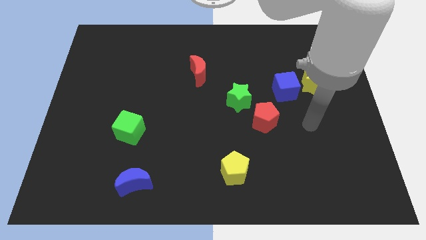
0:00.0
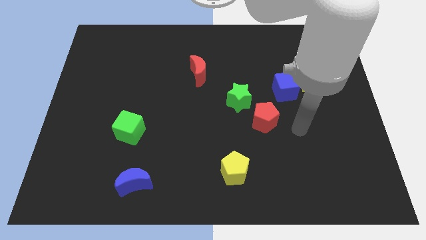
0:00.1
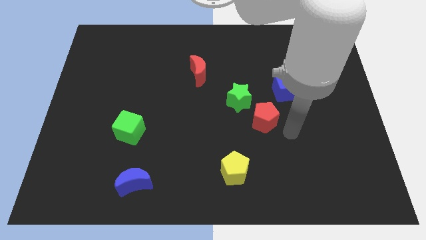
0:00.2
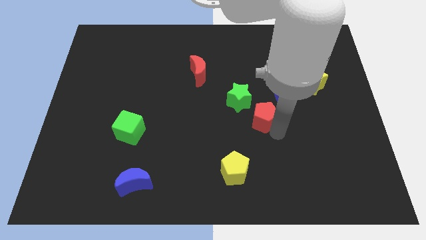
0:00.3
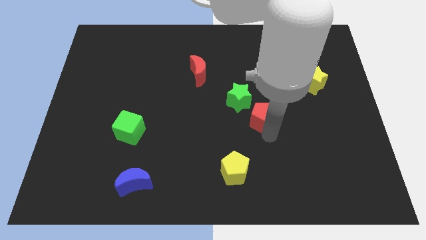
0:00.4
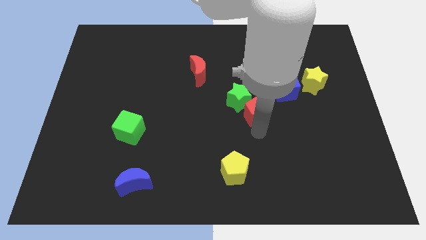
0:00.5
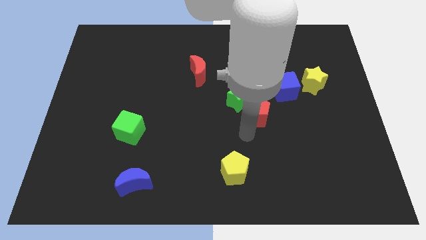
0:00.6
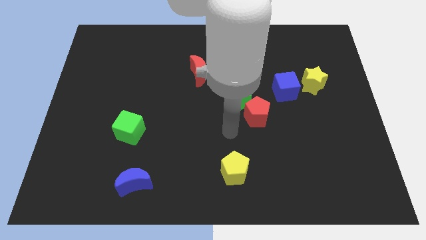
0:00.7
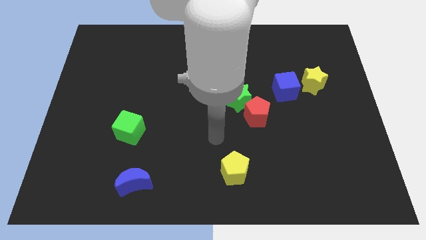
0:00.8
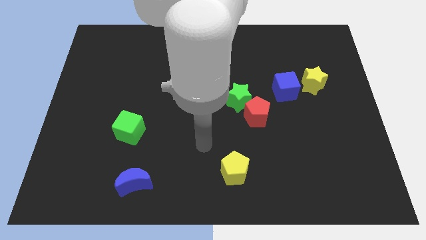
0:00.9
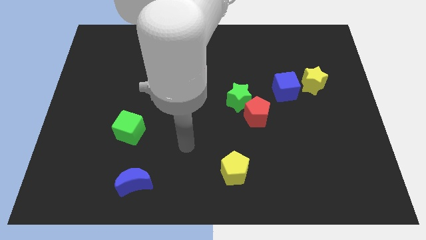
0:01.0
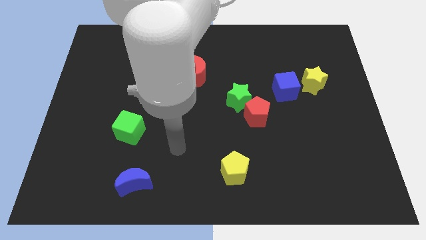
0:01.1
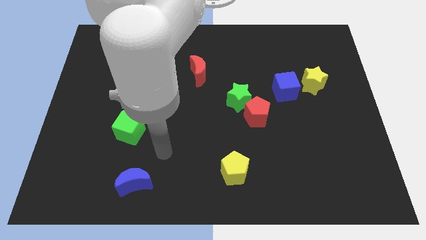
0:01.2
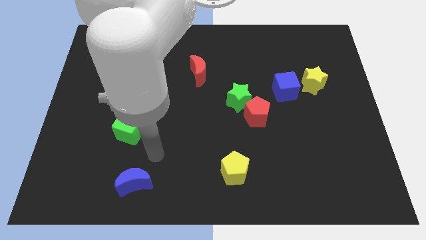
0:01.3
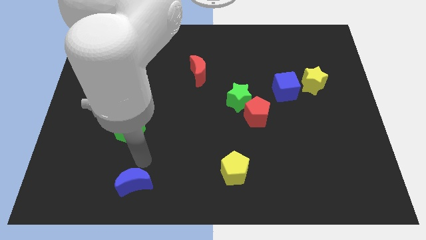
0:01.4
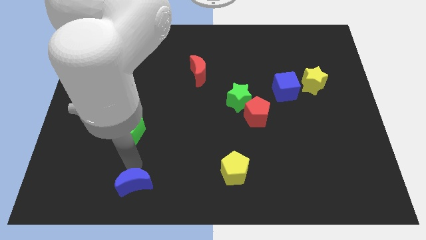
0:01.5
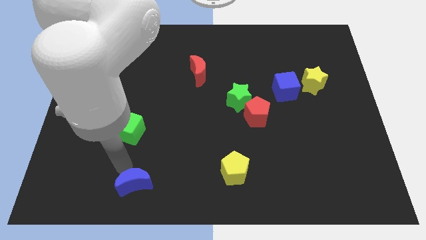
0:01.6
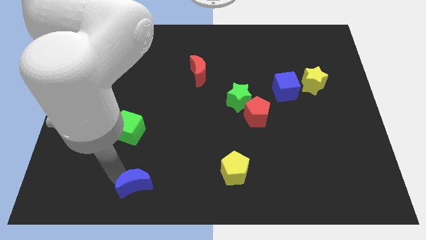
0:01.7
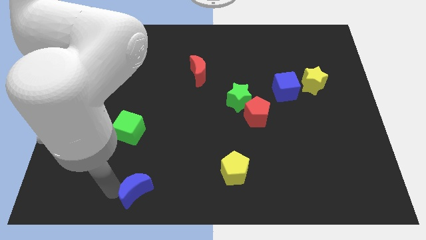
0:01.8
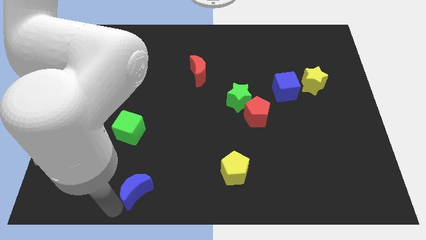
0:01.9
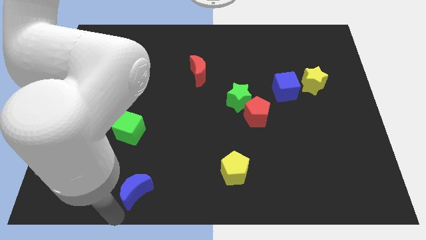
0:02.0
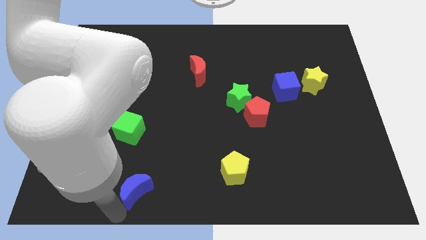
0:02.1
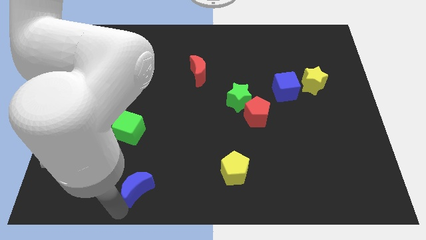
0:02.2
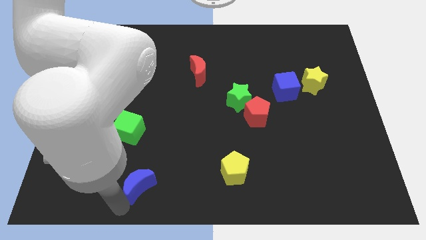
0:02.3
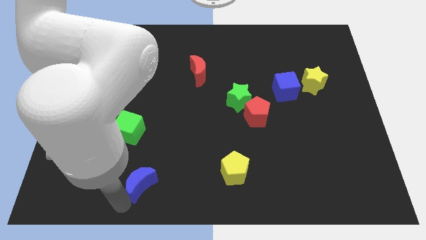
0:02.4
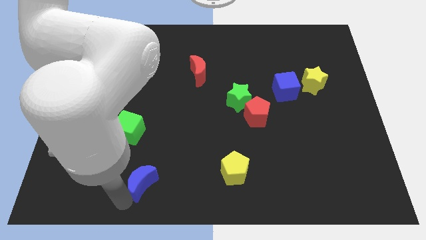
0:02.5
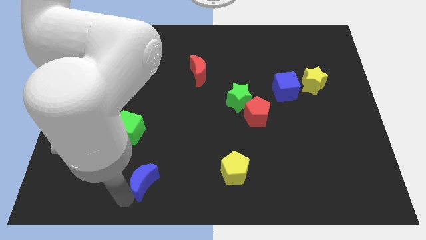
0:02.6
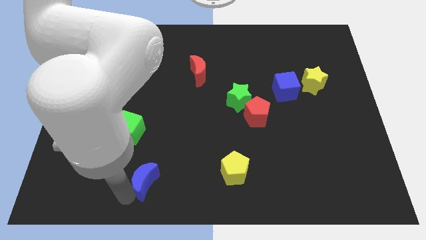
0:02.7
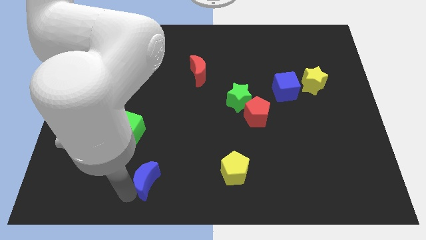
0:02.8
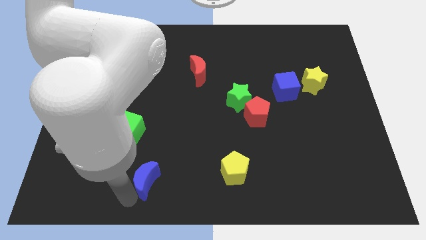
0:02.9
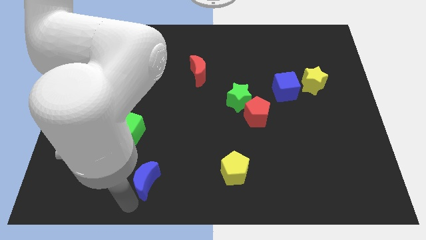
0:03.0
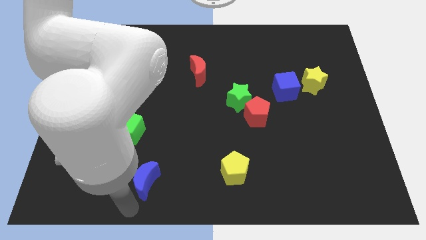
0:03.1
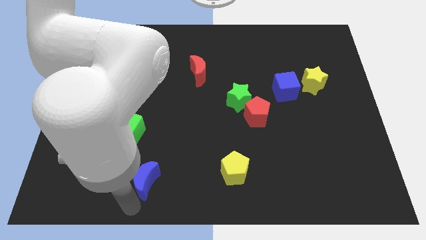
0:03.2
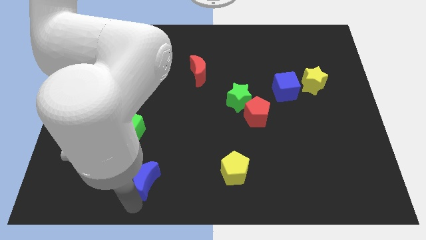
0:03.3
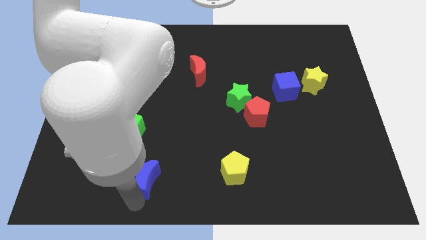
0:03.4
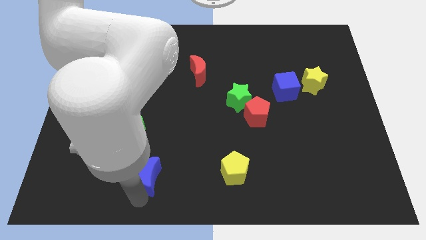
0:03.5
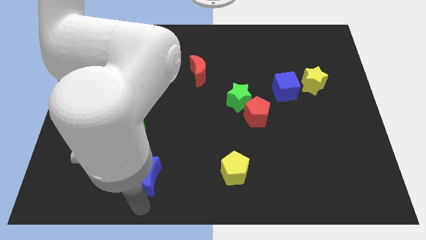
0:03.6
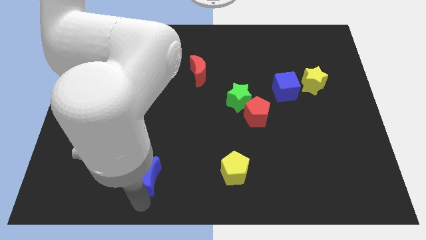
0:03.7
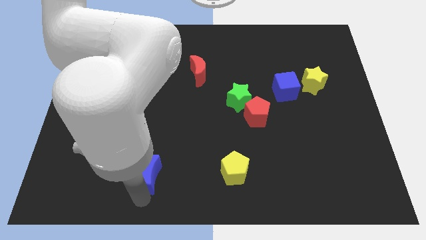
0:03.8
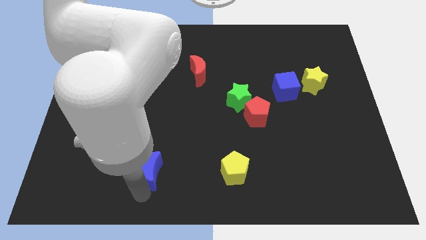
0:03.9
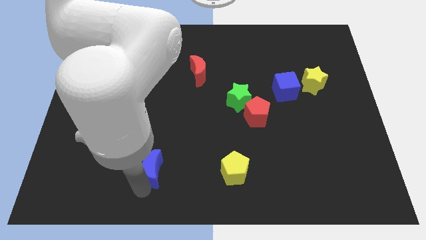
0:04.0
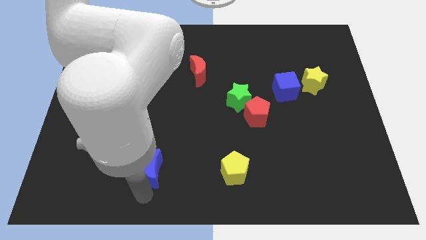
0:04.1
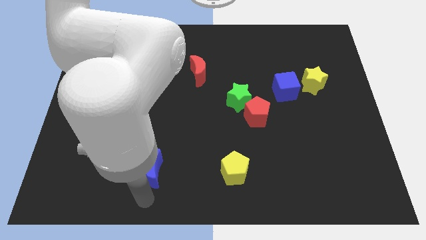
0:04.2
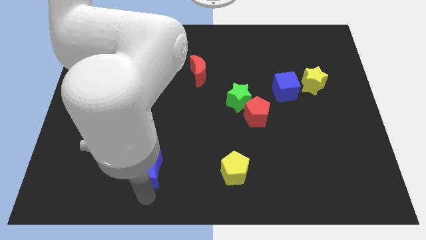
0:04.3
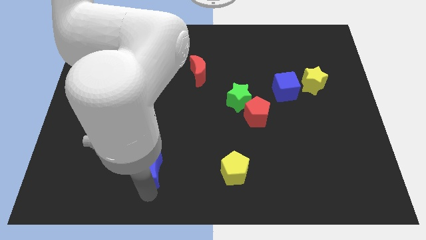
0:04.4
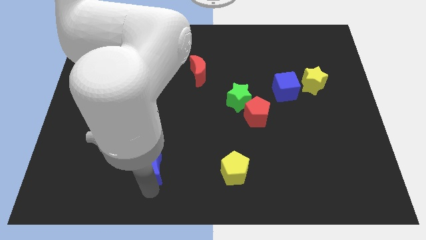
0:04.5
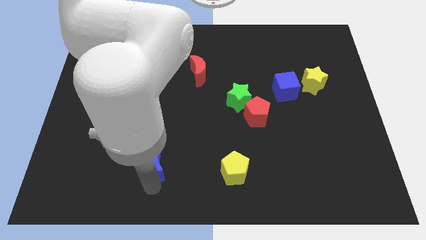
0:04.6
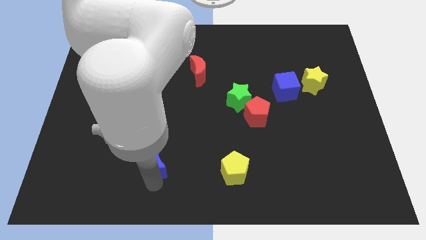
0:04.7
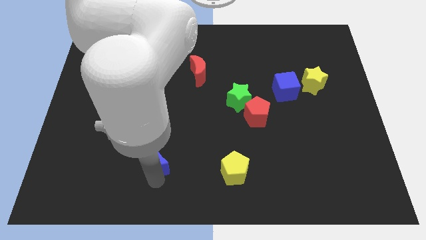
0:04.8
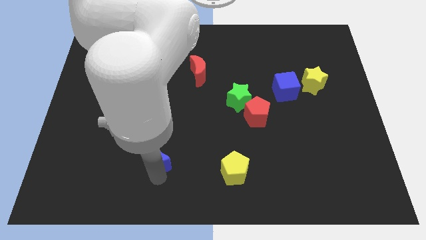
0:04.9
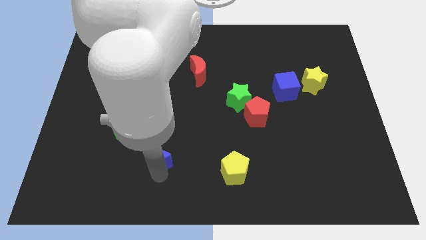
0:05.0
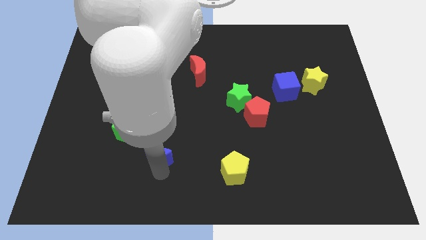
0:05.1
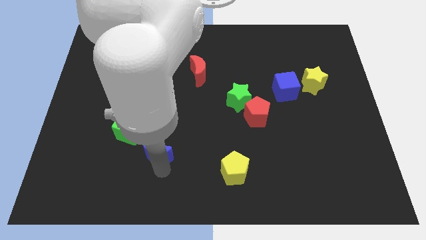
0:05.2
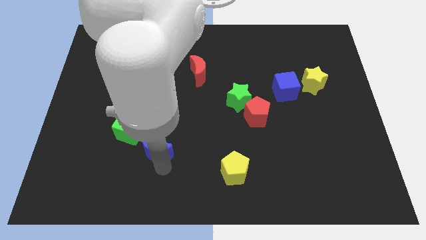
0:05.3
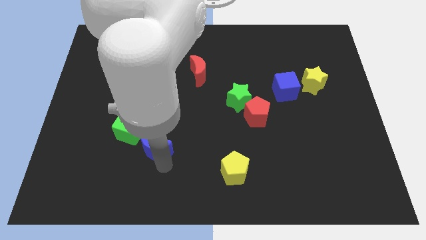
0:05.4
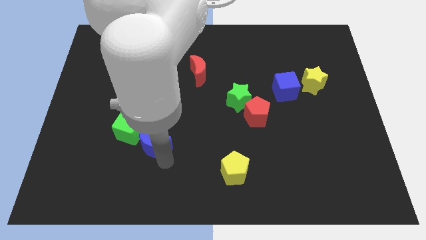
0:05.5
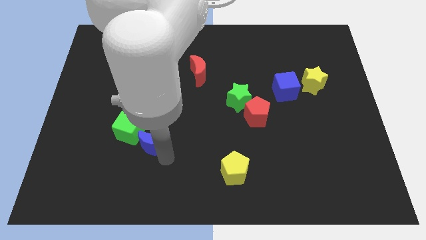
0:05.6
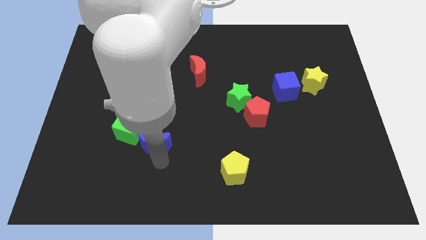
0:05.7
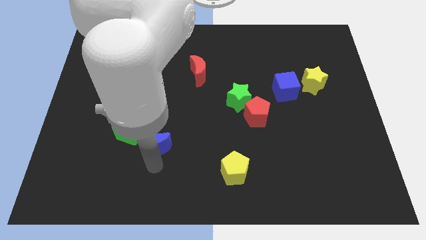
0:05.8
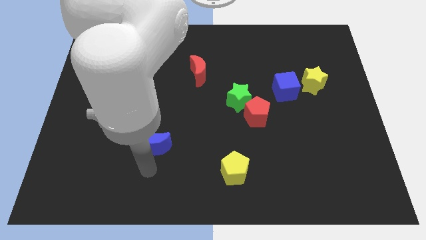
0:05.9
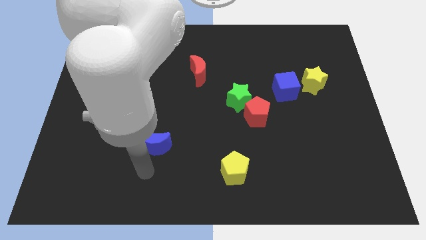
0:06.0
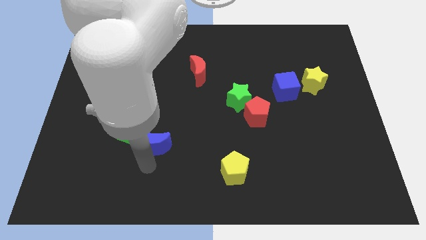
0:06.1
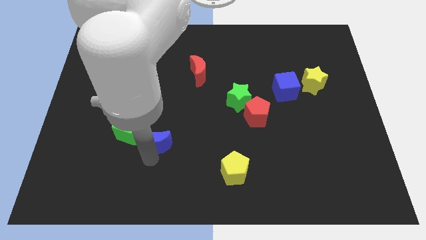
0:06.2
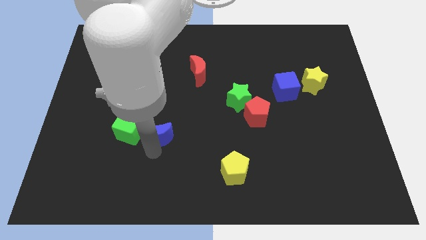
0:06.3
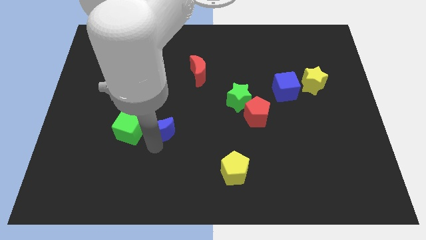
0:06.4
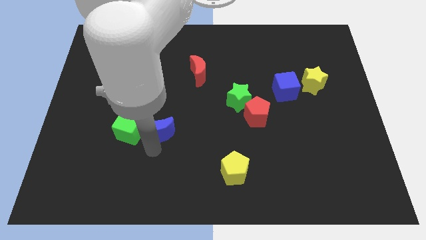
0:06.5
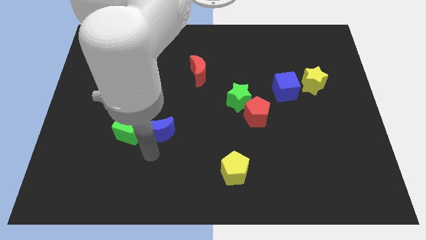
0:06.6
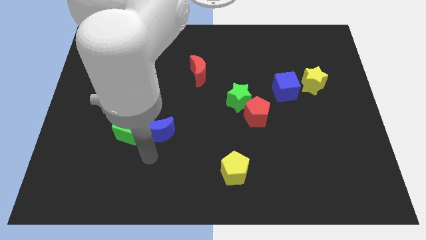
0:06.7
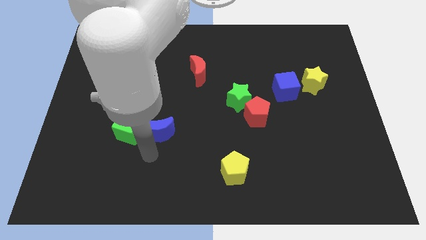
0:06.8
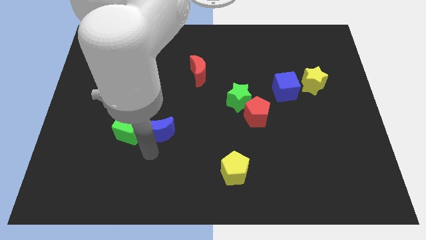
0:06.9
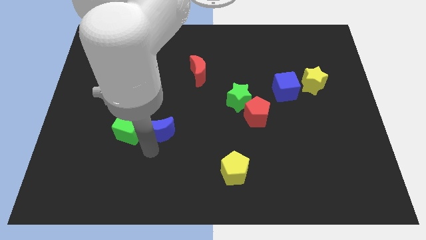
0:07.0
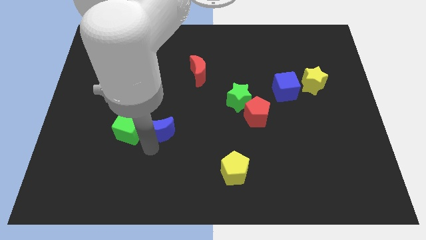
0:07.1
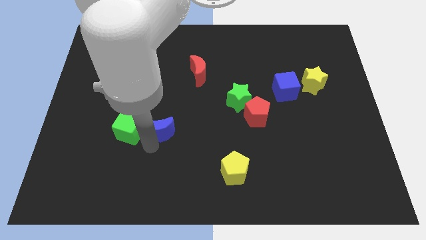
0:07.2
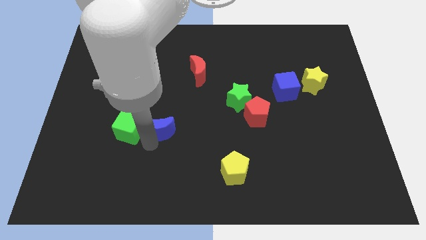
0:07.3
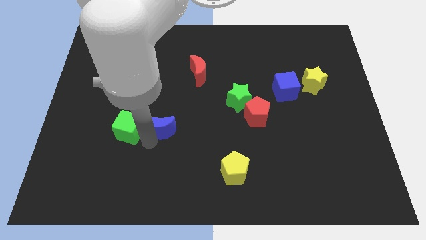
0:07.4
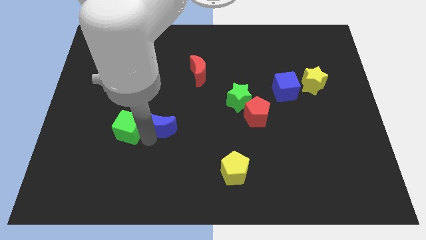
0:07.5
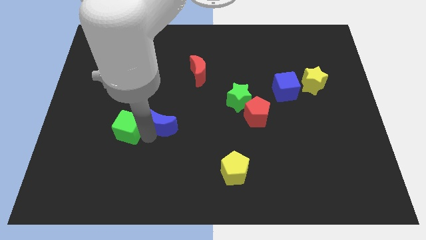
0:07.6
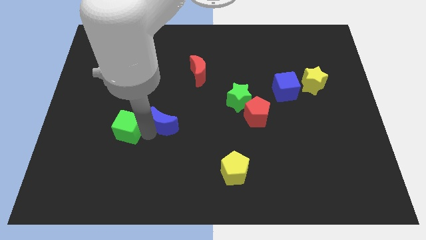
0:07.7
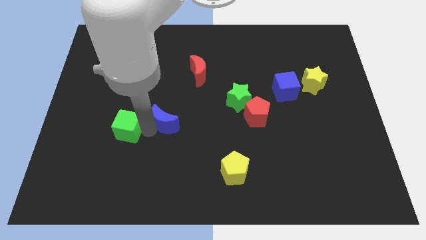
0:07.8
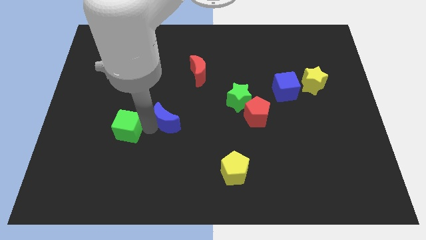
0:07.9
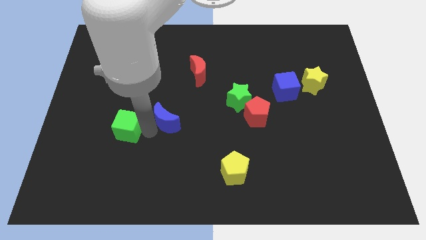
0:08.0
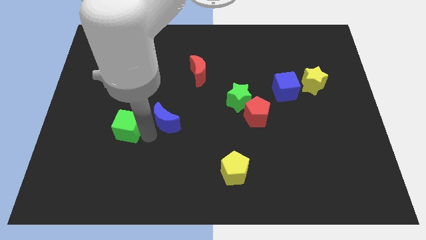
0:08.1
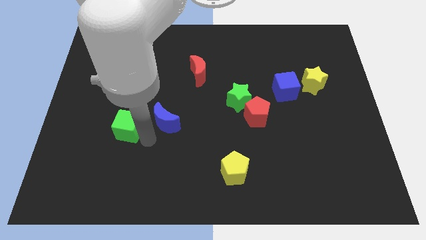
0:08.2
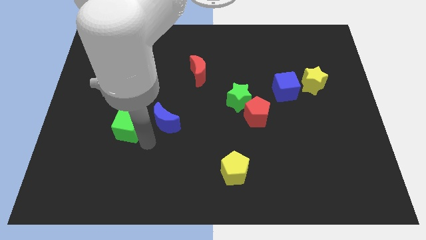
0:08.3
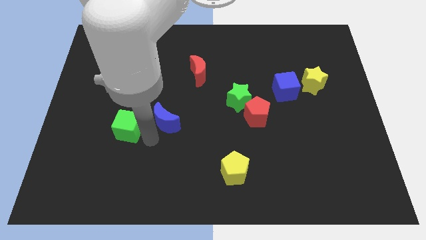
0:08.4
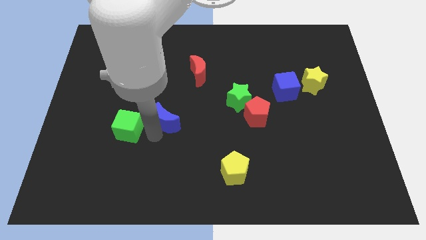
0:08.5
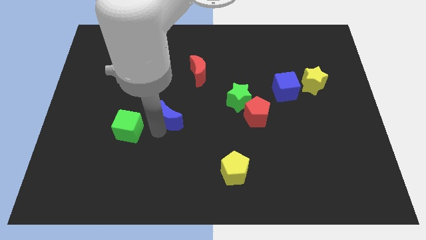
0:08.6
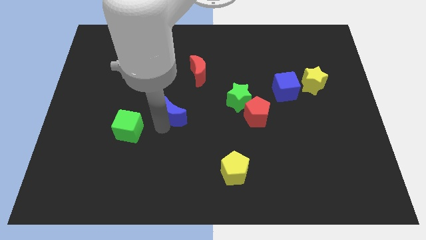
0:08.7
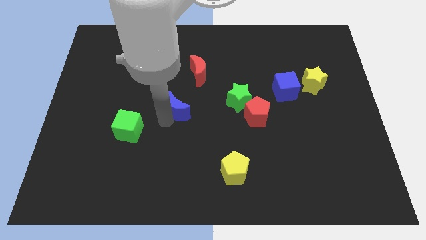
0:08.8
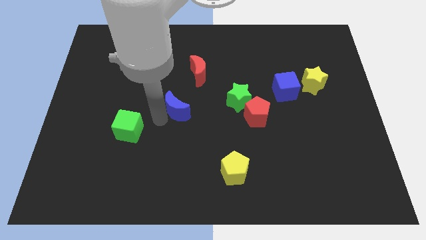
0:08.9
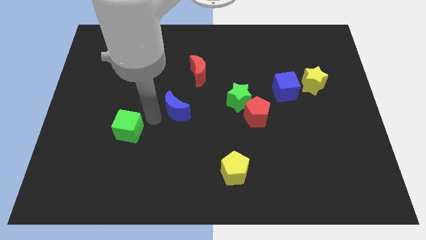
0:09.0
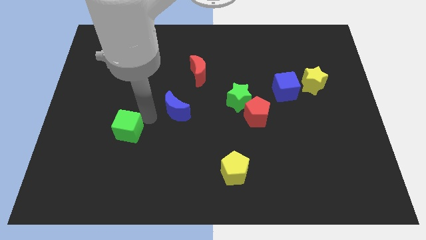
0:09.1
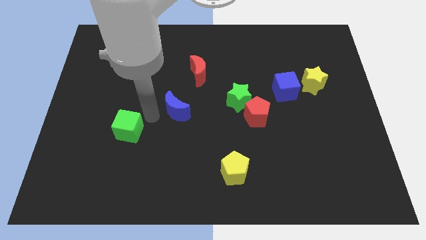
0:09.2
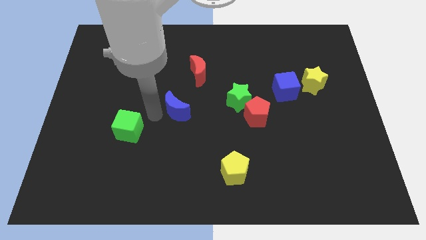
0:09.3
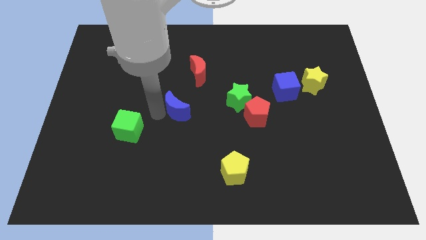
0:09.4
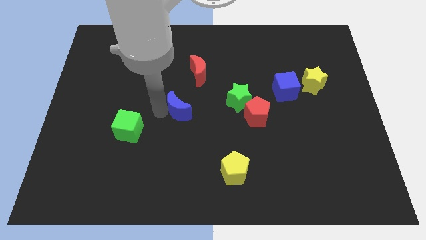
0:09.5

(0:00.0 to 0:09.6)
slide the blue moon to the bottom side of the red moon
